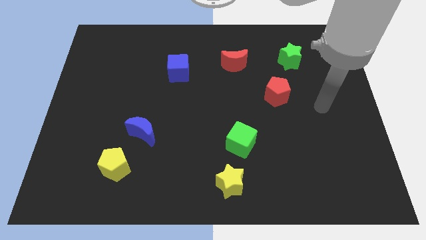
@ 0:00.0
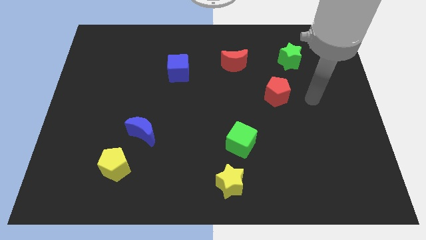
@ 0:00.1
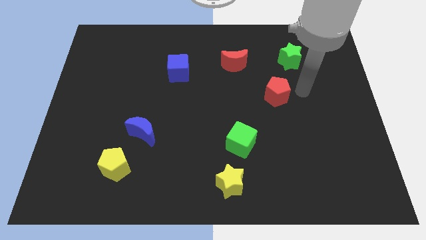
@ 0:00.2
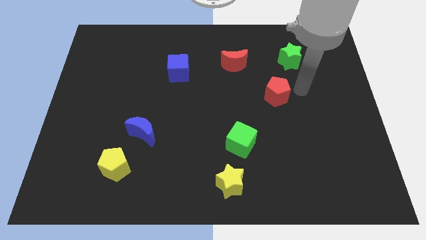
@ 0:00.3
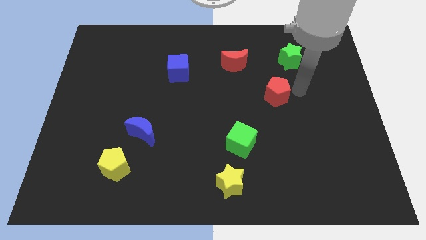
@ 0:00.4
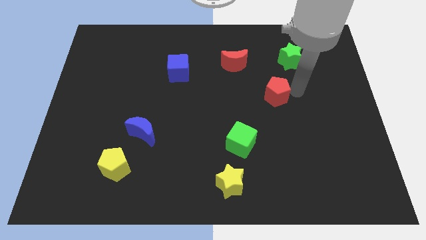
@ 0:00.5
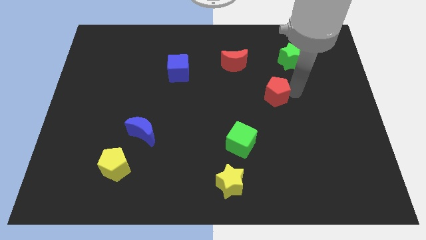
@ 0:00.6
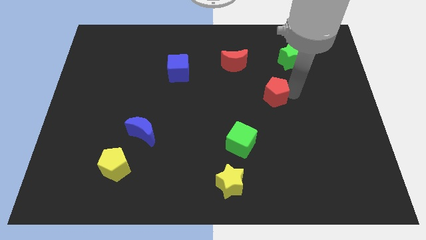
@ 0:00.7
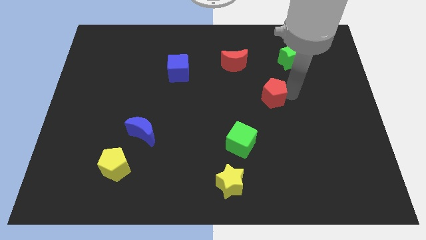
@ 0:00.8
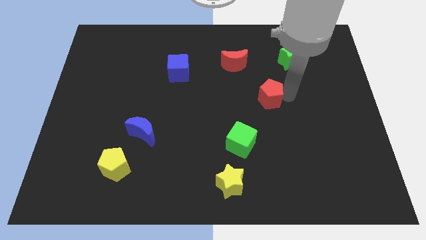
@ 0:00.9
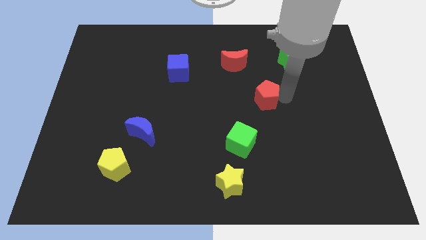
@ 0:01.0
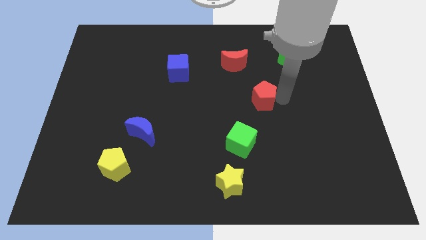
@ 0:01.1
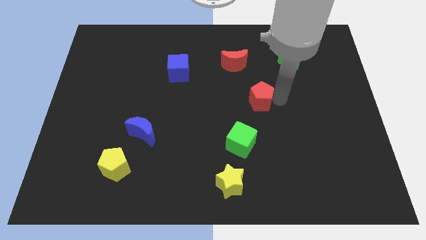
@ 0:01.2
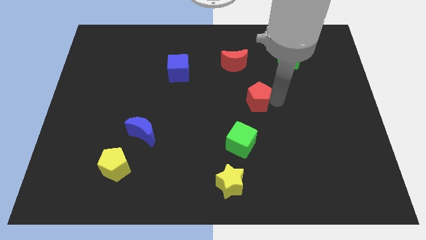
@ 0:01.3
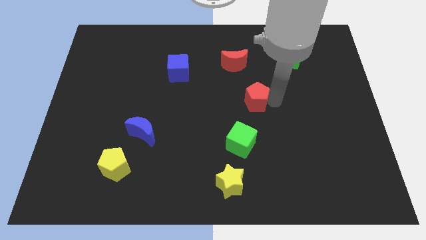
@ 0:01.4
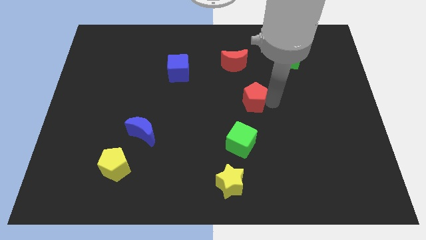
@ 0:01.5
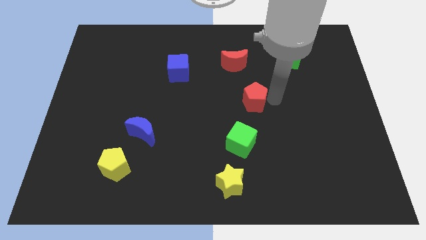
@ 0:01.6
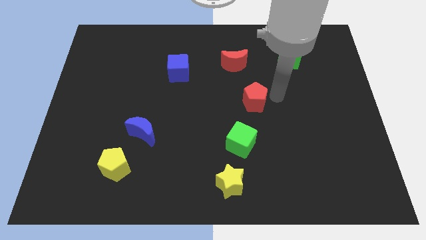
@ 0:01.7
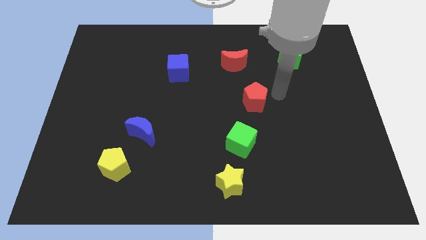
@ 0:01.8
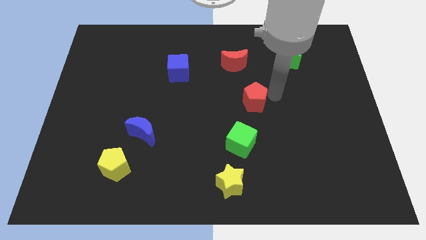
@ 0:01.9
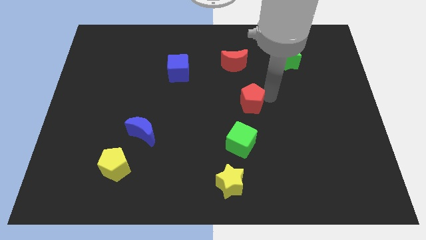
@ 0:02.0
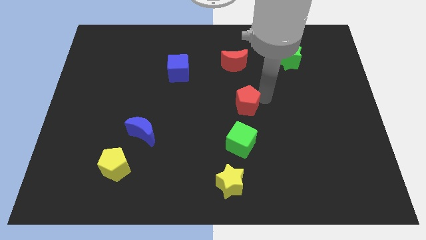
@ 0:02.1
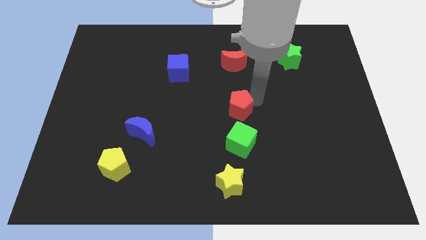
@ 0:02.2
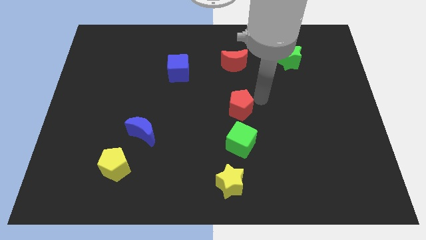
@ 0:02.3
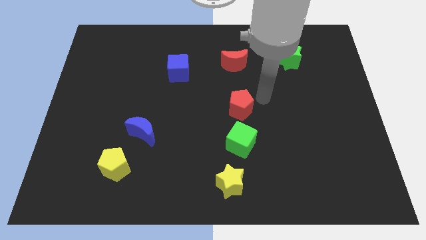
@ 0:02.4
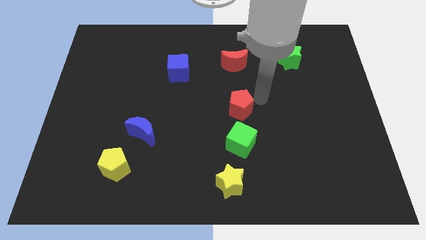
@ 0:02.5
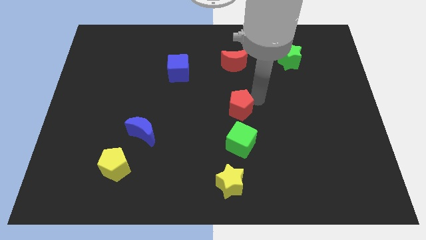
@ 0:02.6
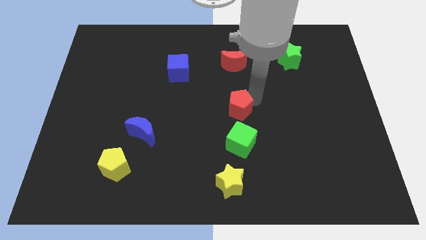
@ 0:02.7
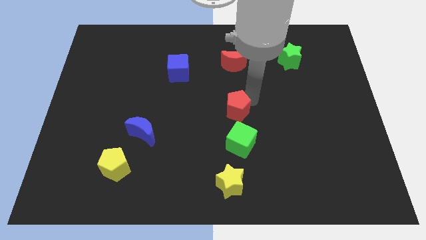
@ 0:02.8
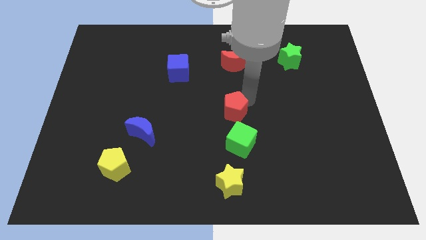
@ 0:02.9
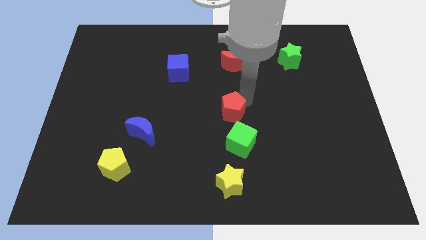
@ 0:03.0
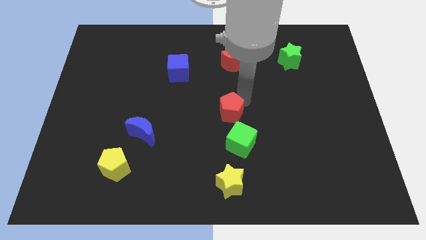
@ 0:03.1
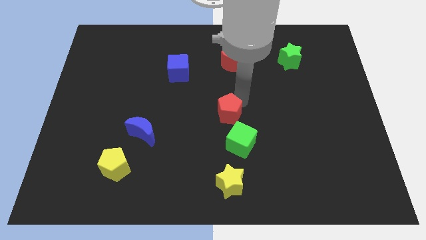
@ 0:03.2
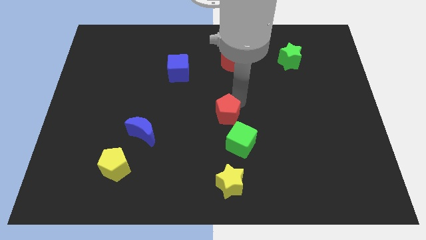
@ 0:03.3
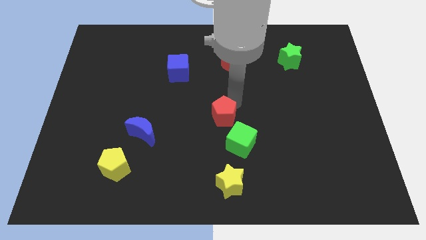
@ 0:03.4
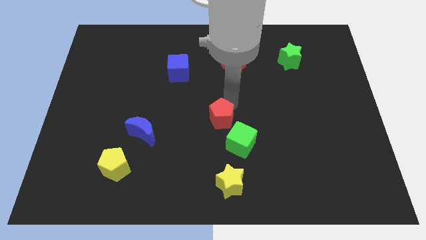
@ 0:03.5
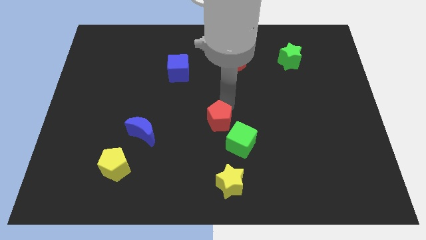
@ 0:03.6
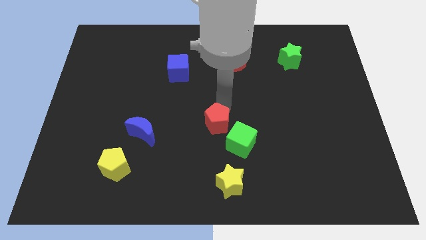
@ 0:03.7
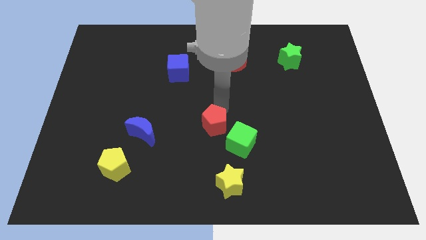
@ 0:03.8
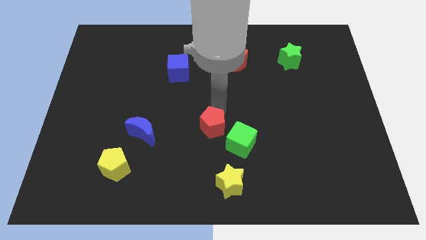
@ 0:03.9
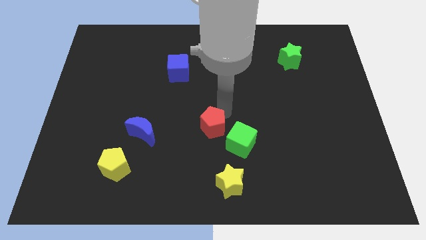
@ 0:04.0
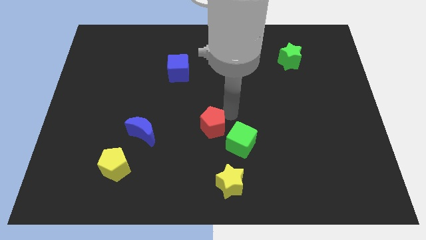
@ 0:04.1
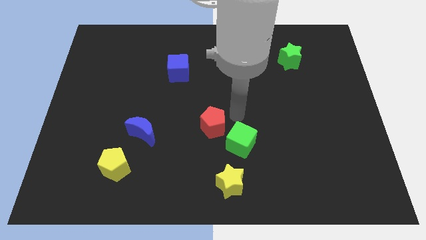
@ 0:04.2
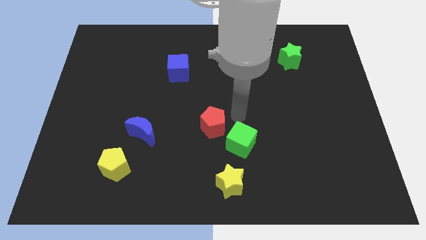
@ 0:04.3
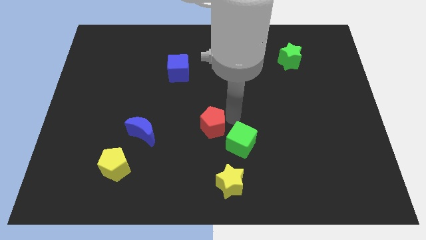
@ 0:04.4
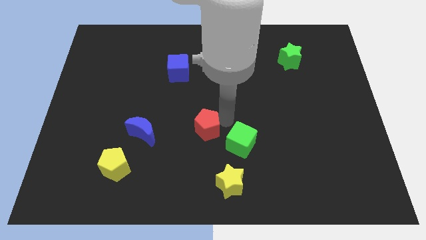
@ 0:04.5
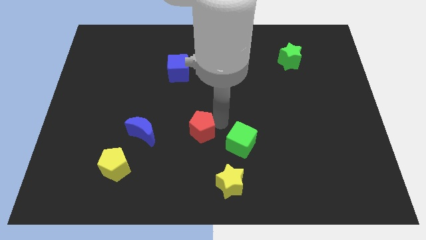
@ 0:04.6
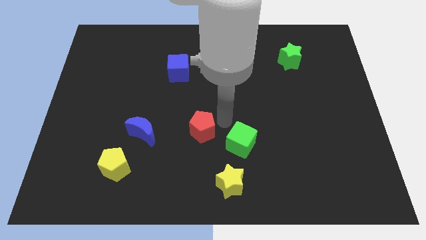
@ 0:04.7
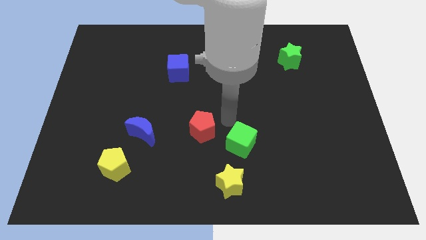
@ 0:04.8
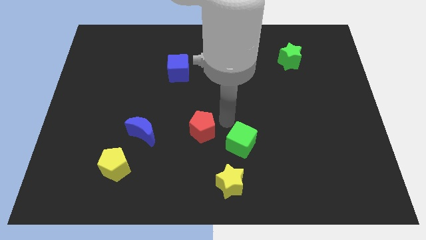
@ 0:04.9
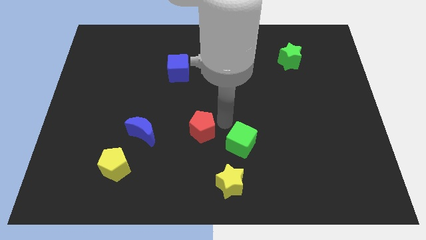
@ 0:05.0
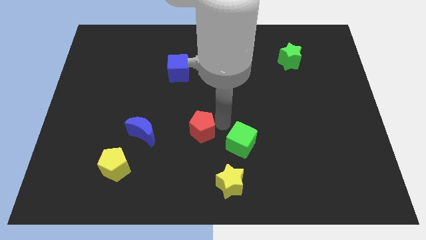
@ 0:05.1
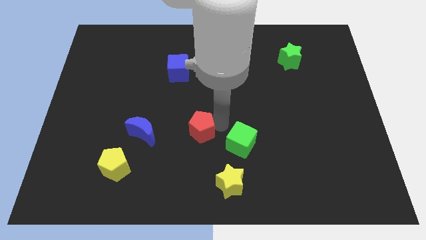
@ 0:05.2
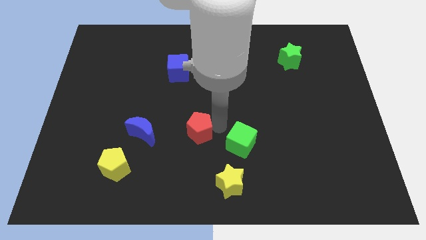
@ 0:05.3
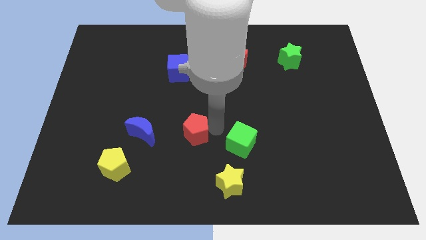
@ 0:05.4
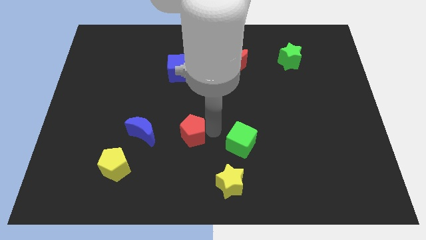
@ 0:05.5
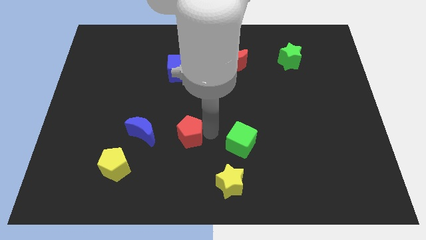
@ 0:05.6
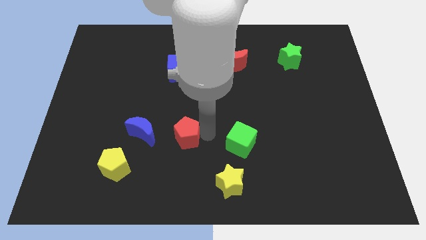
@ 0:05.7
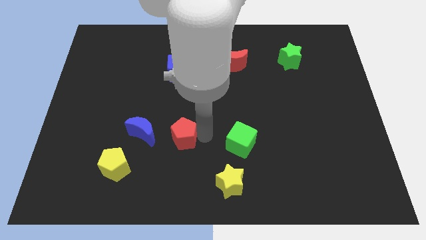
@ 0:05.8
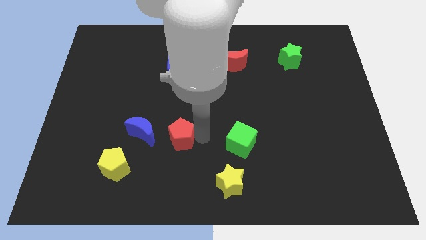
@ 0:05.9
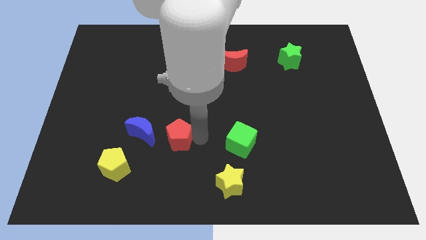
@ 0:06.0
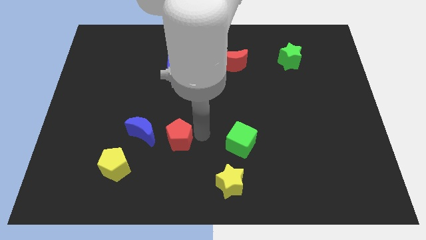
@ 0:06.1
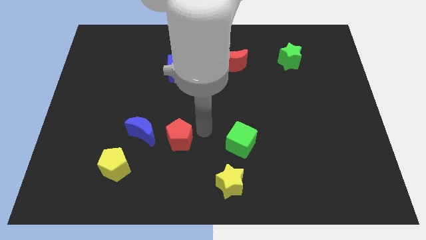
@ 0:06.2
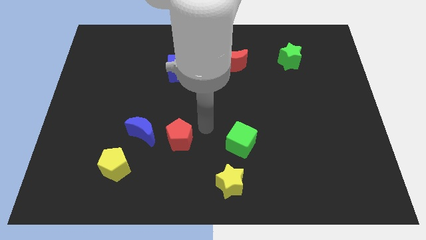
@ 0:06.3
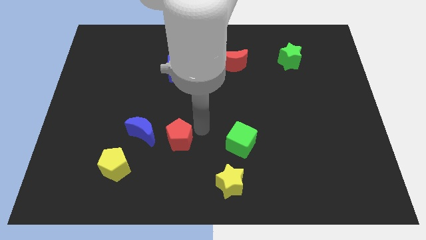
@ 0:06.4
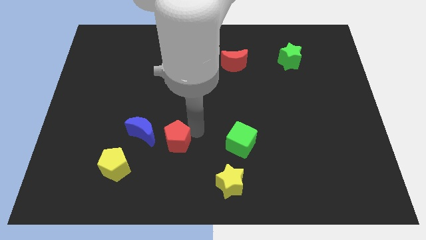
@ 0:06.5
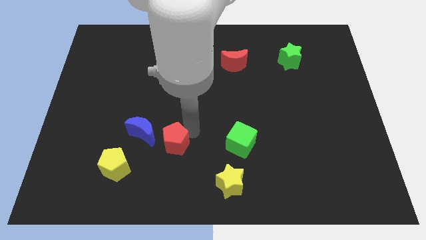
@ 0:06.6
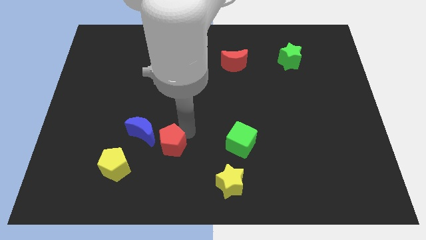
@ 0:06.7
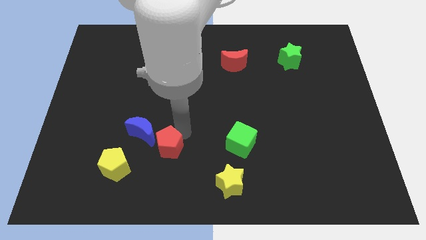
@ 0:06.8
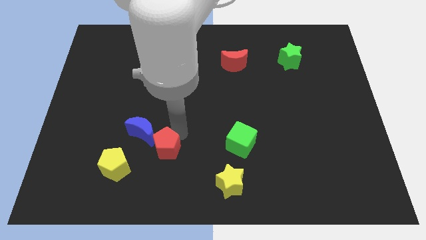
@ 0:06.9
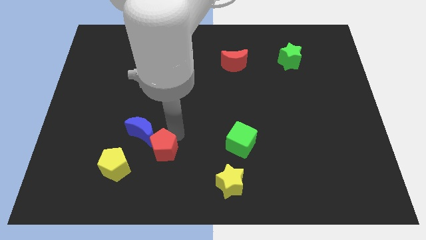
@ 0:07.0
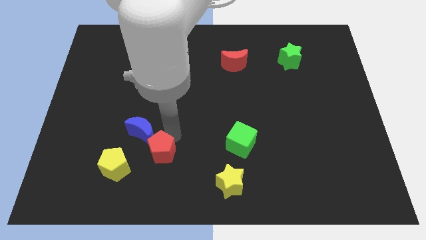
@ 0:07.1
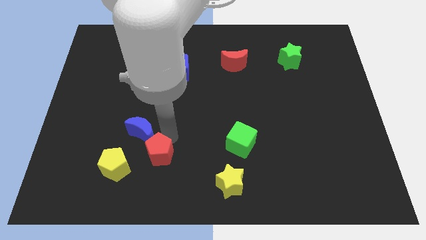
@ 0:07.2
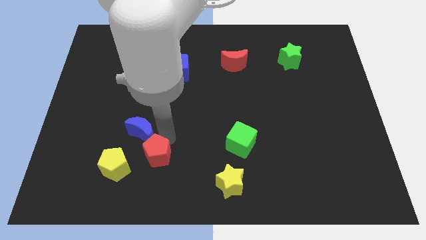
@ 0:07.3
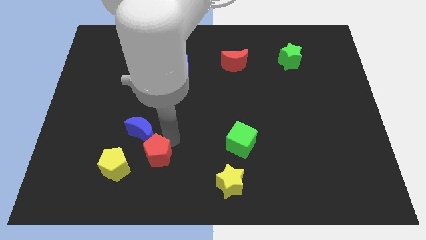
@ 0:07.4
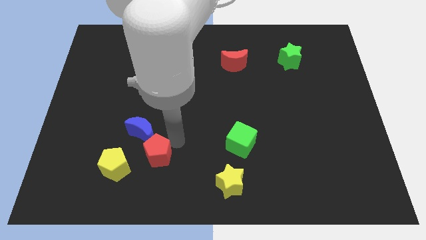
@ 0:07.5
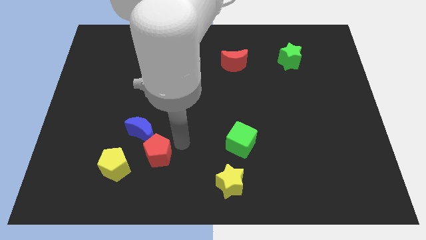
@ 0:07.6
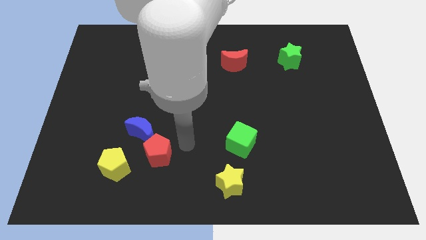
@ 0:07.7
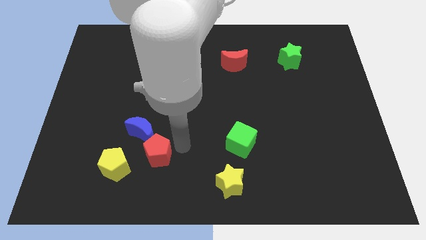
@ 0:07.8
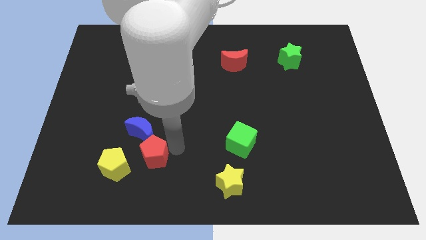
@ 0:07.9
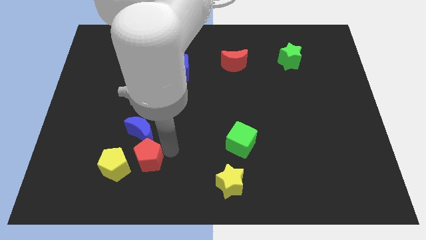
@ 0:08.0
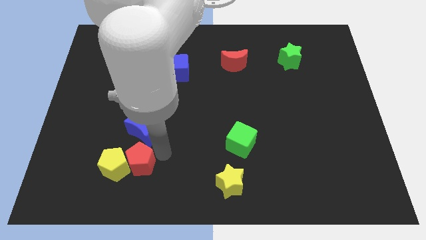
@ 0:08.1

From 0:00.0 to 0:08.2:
slide the red pentagon to the yellow pentagon
